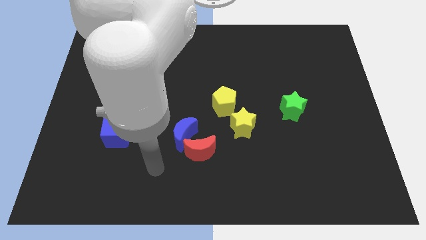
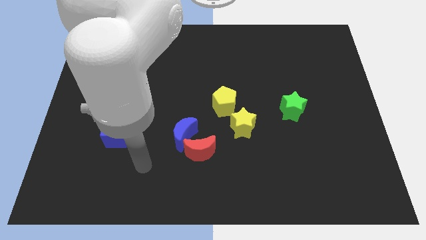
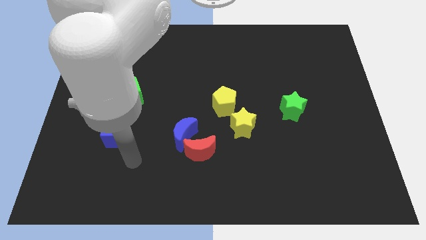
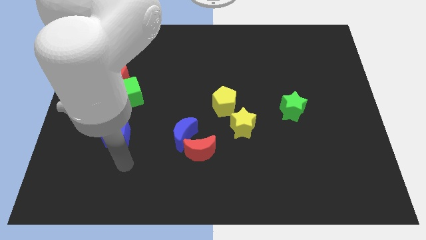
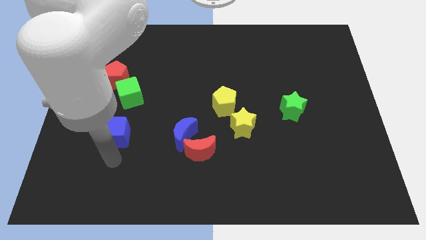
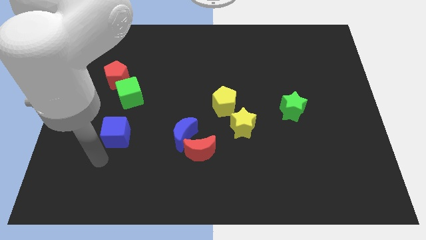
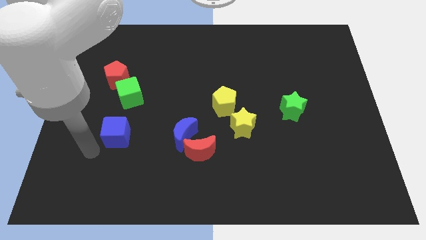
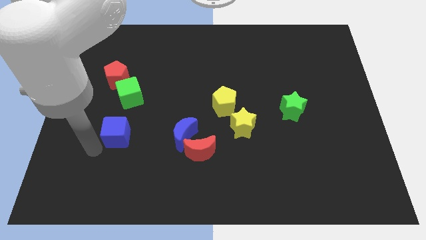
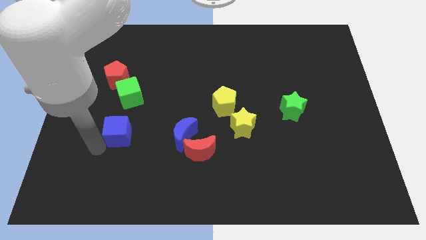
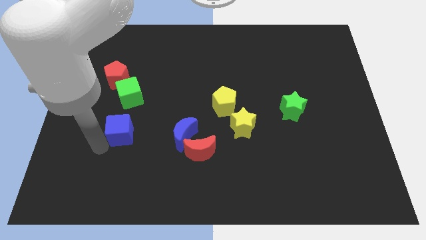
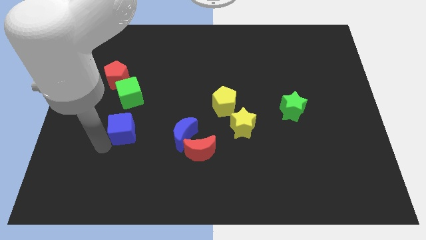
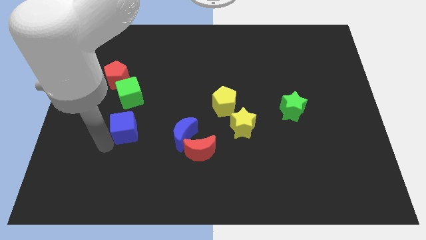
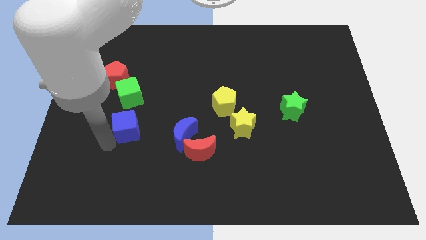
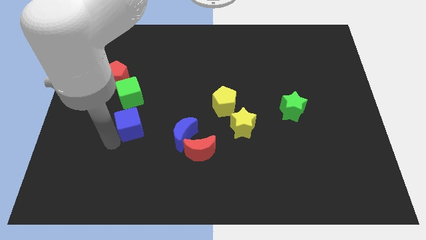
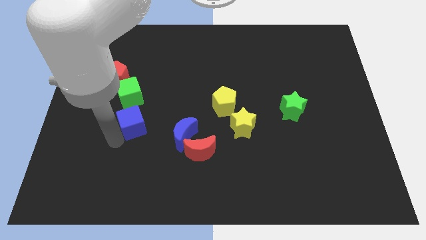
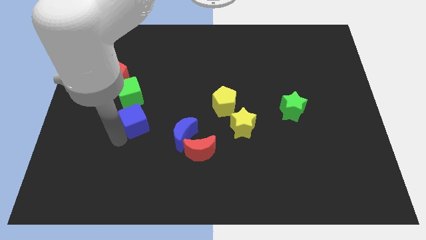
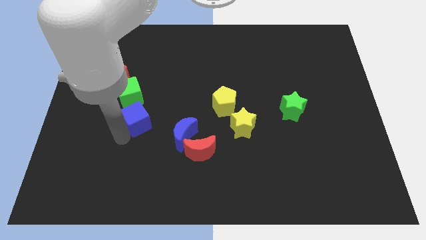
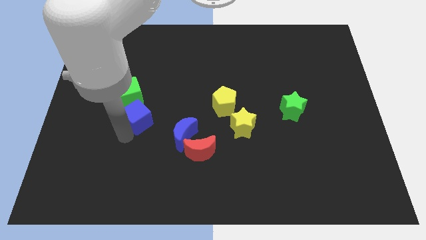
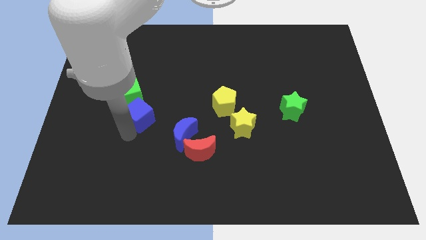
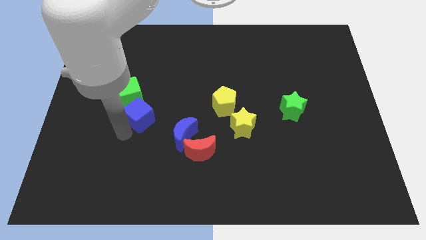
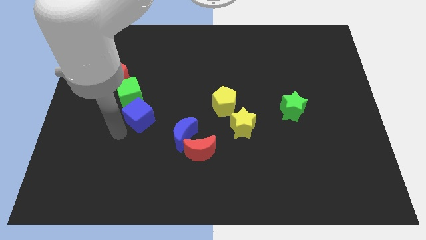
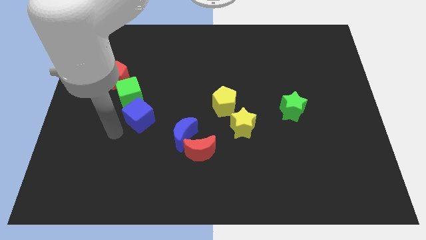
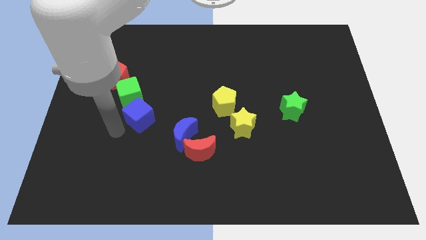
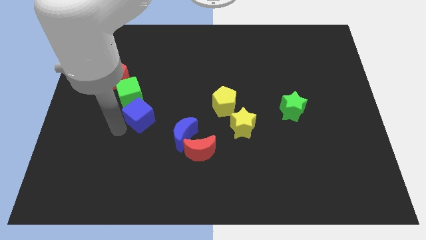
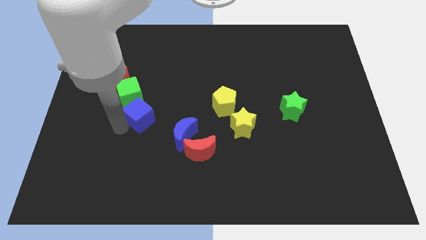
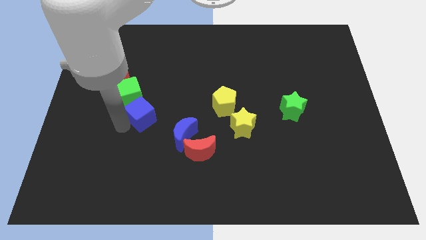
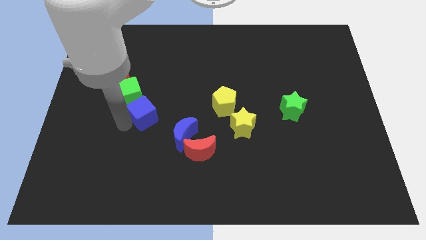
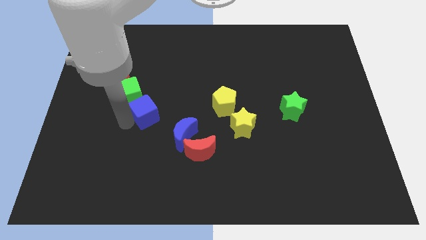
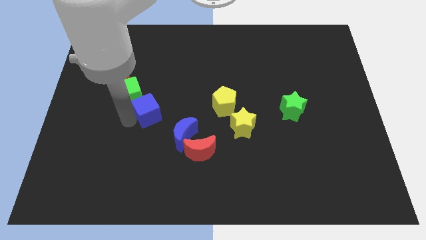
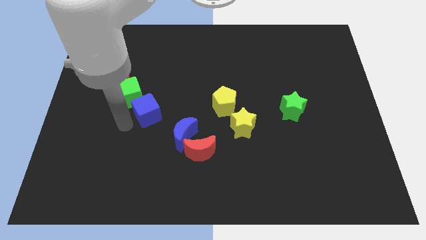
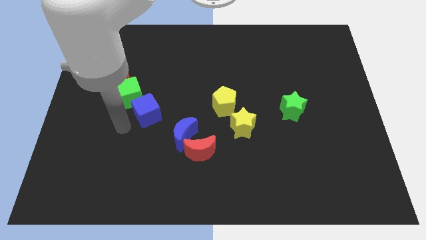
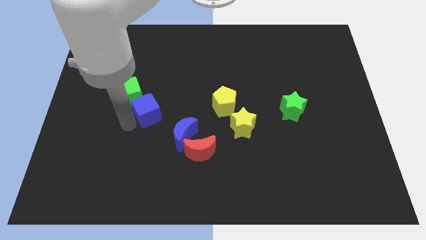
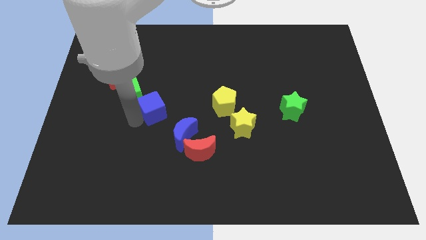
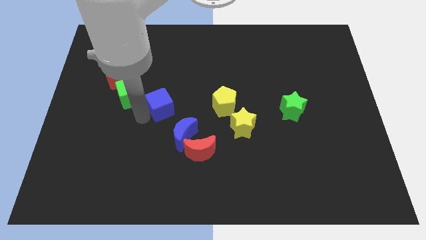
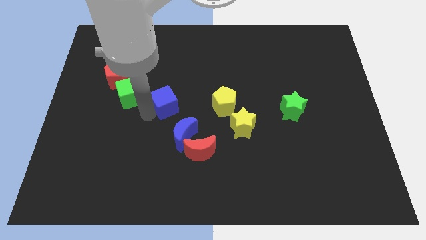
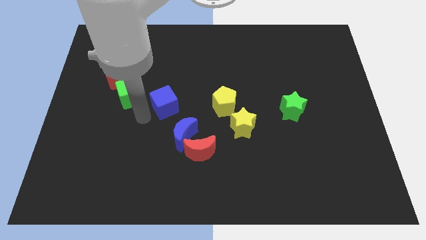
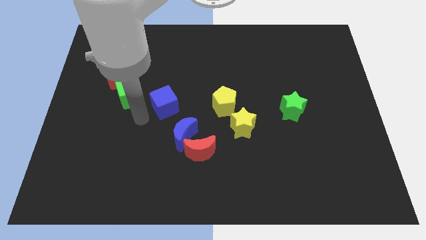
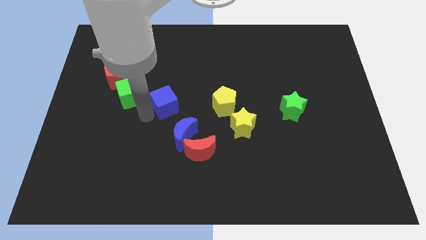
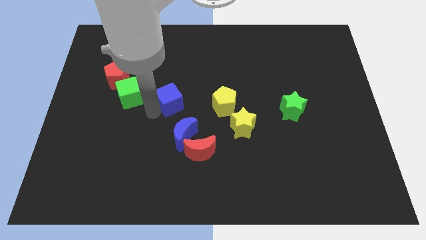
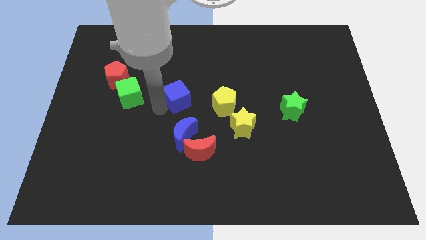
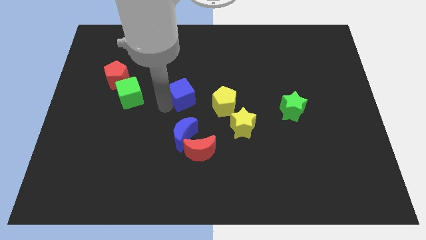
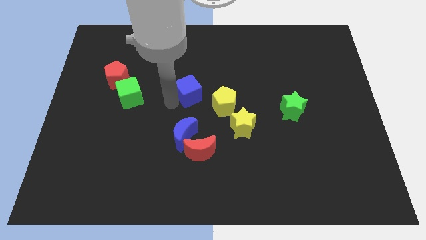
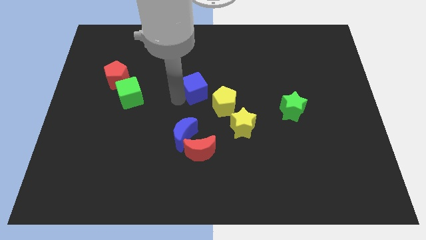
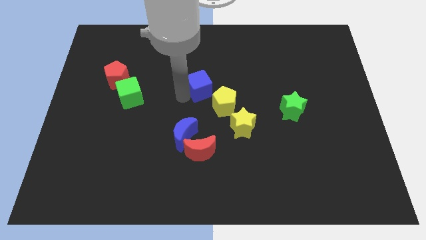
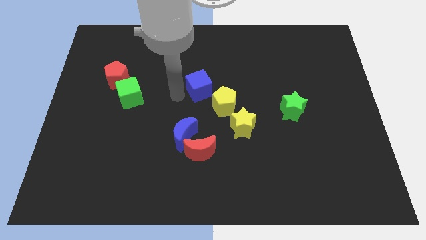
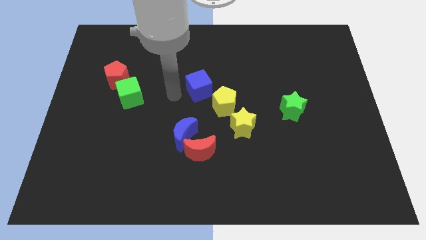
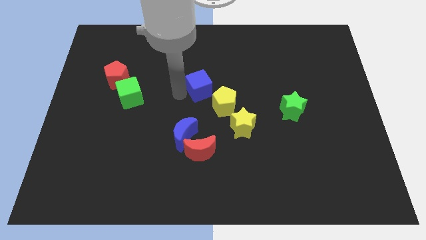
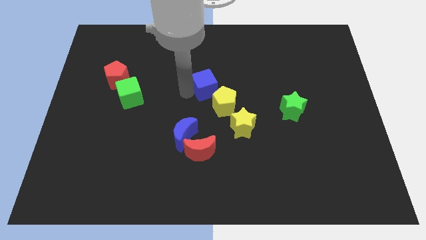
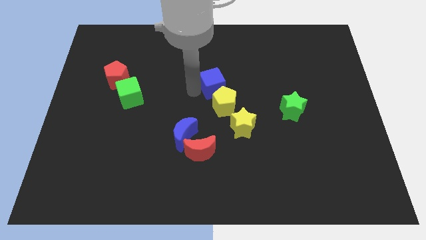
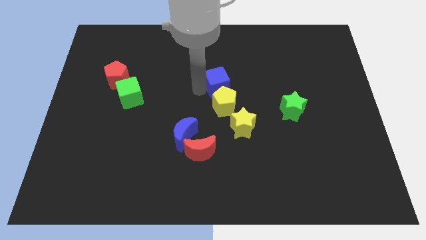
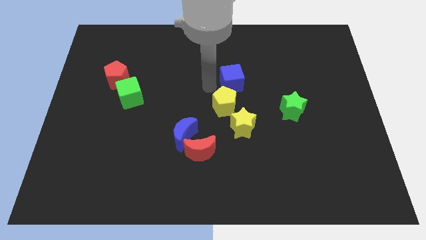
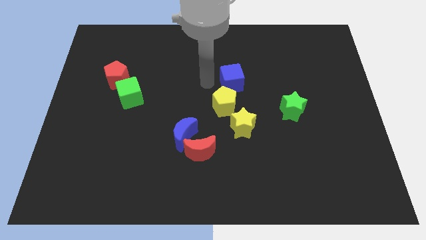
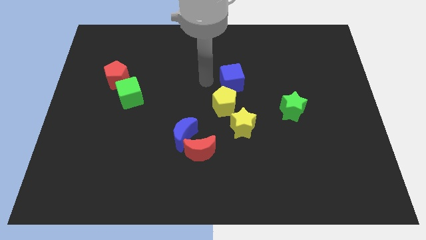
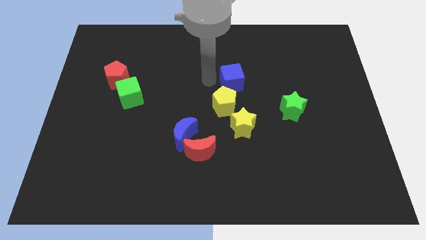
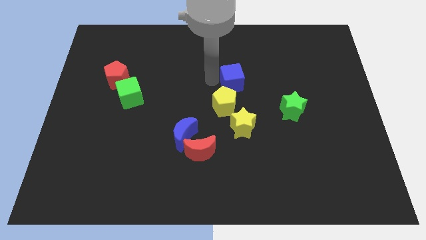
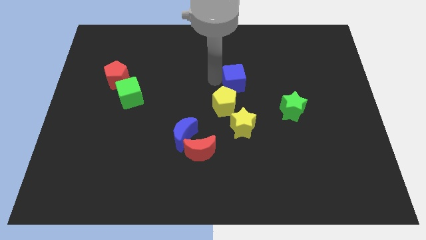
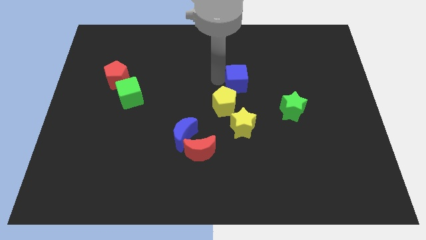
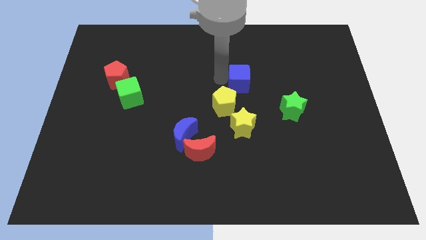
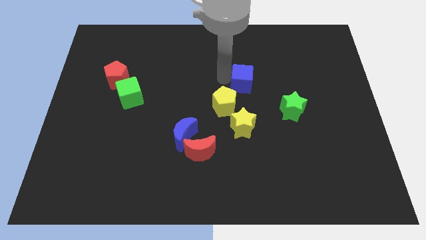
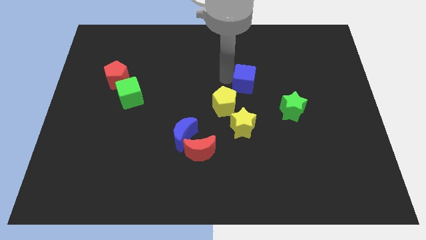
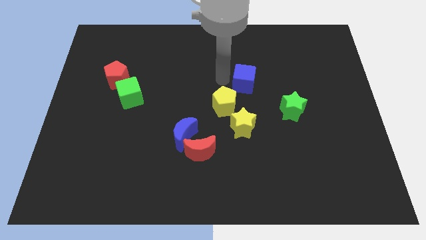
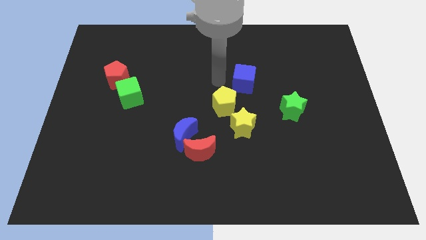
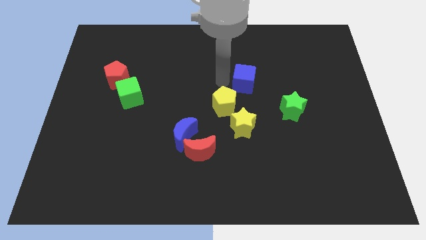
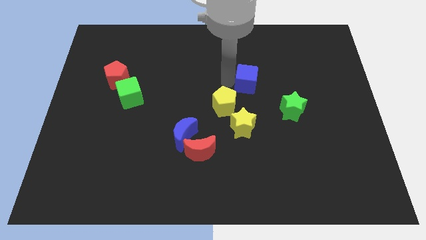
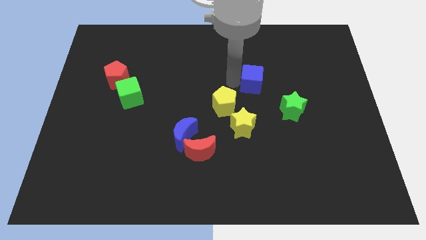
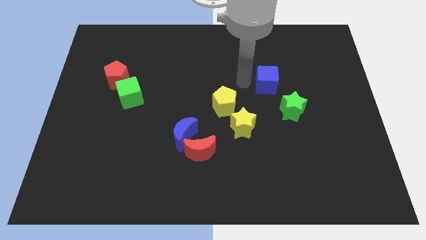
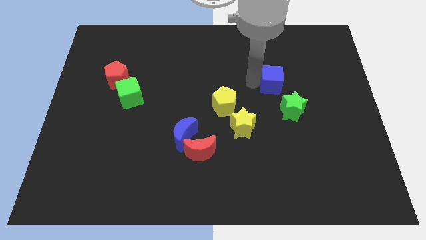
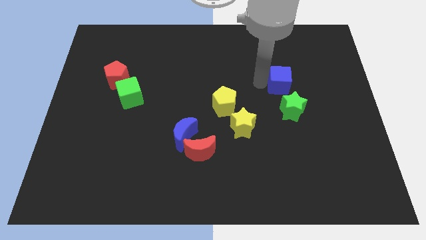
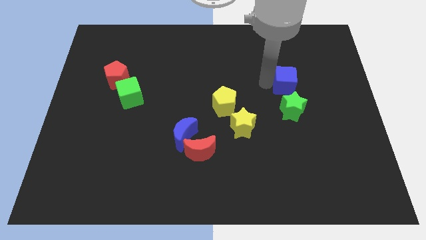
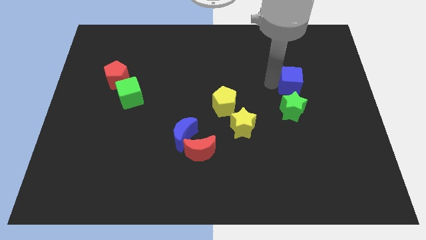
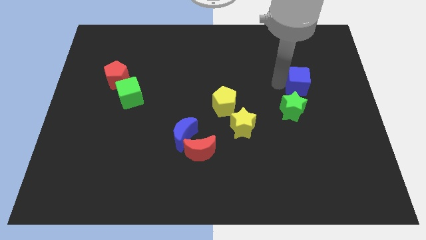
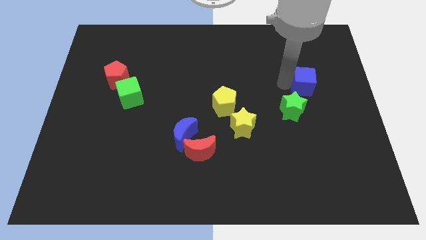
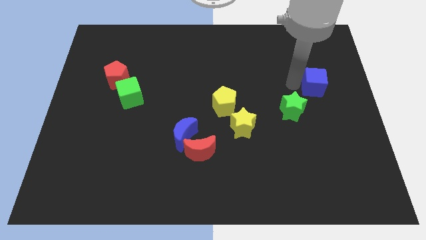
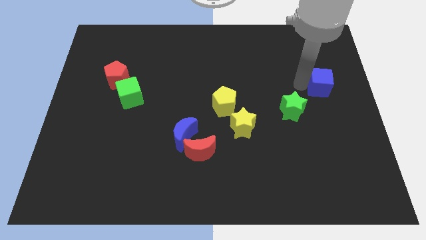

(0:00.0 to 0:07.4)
push the blue cube to the center right
